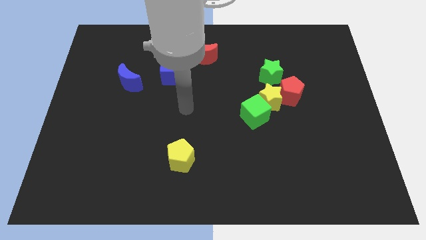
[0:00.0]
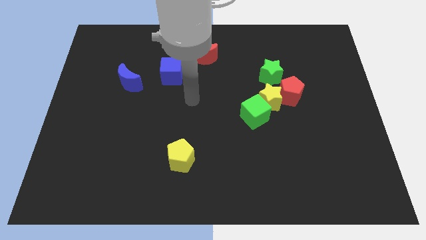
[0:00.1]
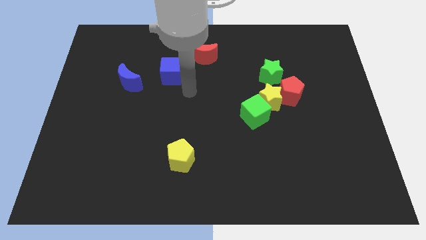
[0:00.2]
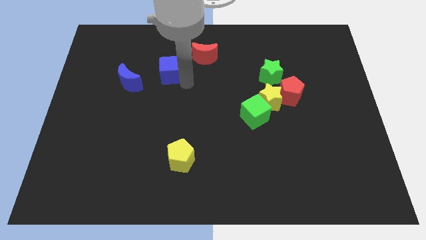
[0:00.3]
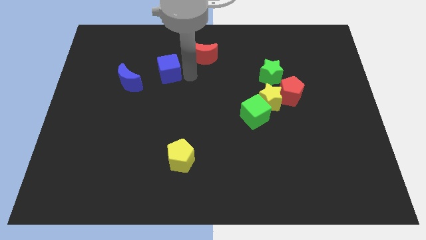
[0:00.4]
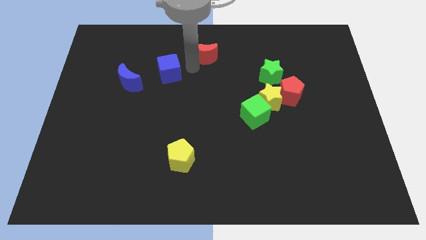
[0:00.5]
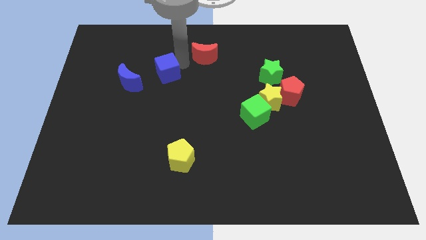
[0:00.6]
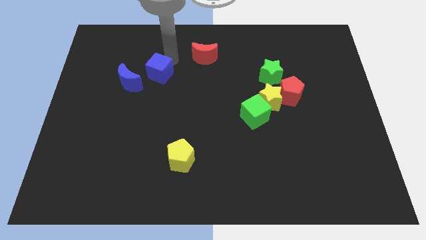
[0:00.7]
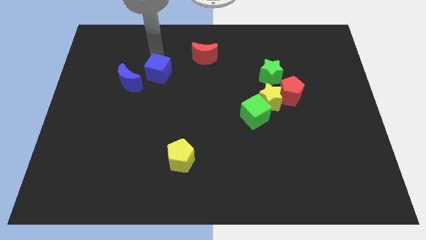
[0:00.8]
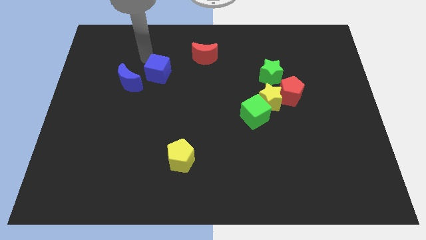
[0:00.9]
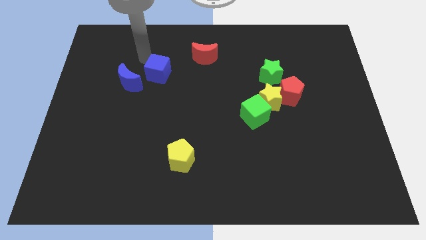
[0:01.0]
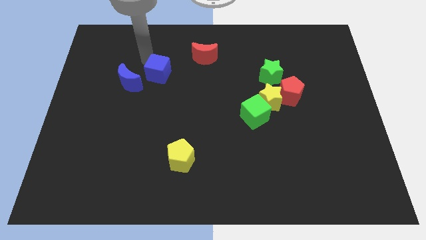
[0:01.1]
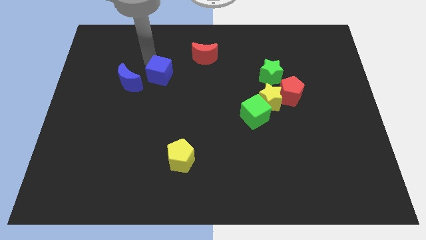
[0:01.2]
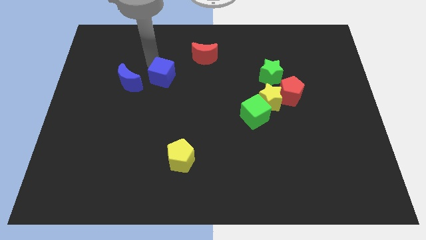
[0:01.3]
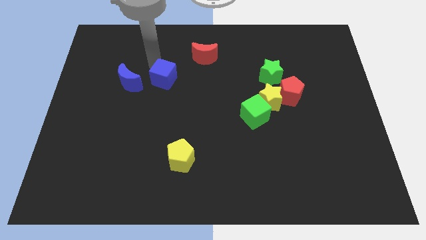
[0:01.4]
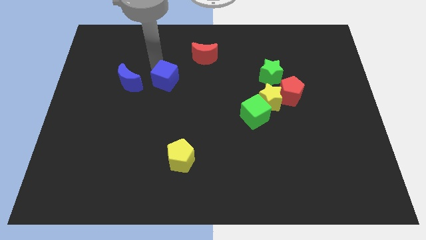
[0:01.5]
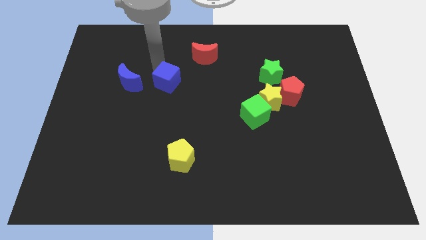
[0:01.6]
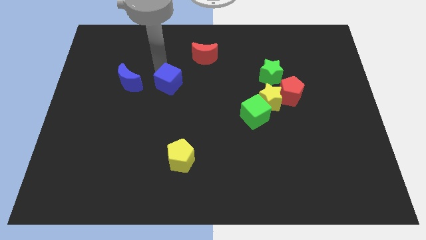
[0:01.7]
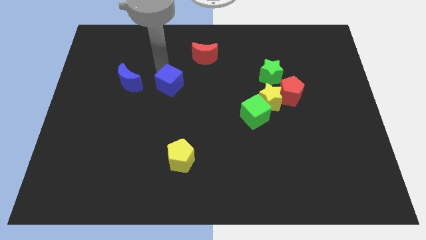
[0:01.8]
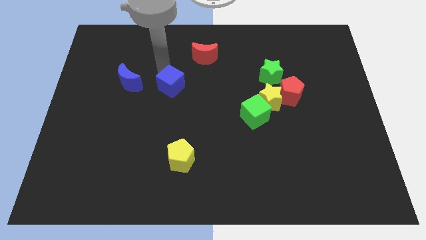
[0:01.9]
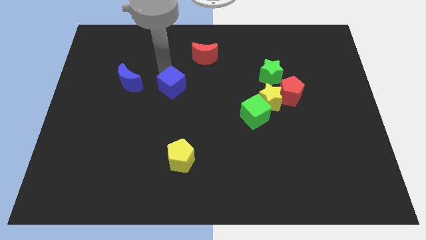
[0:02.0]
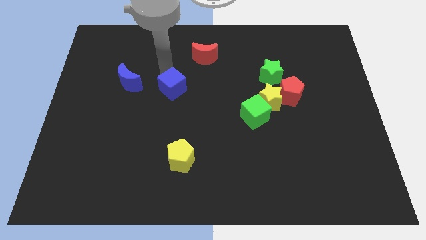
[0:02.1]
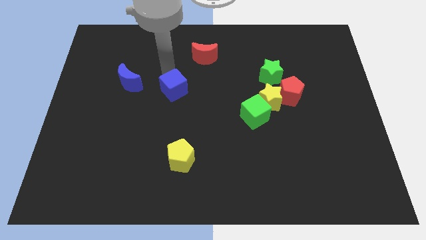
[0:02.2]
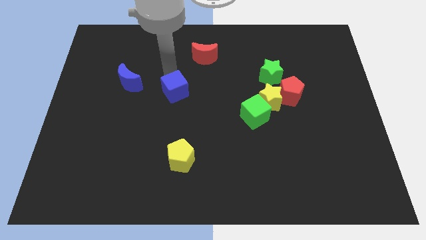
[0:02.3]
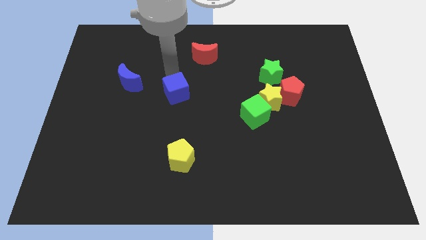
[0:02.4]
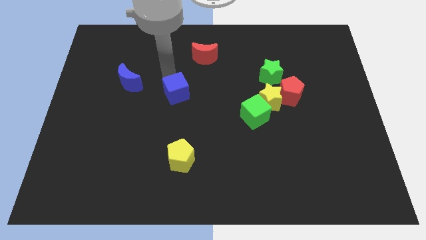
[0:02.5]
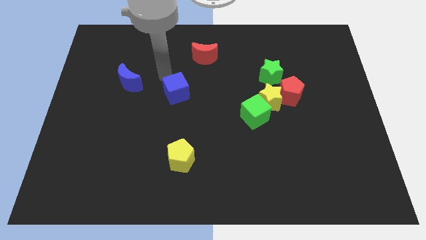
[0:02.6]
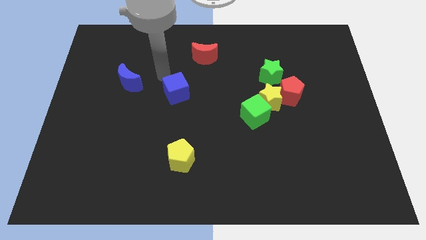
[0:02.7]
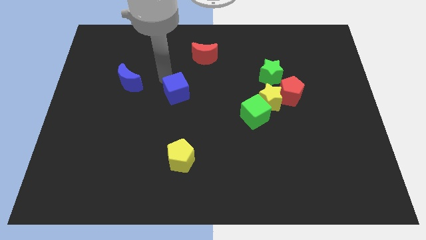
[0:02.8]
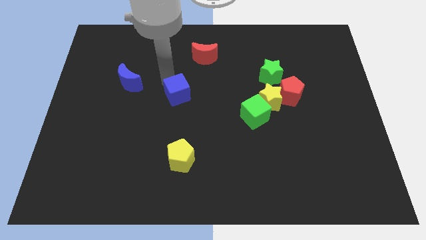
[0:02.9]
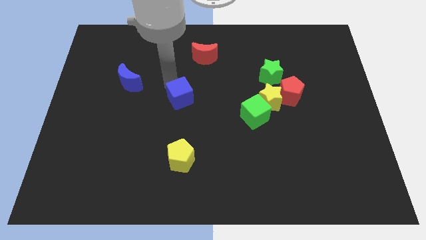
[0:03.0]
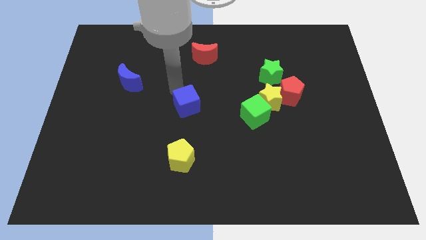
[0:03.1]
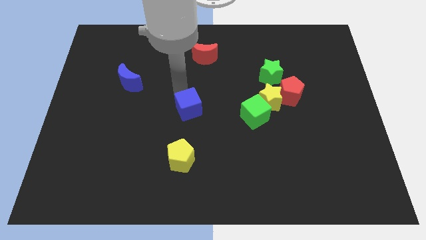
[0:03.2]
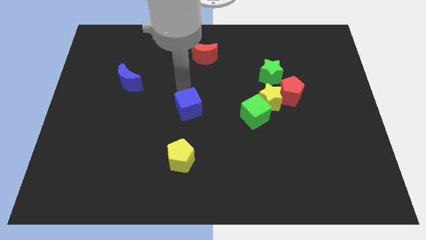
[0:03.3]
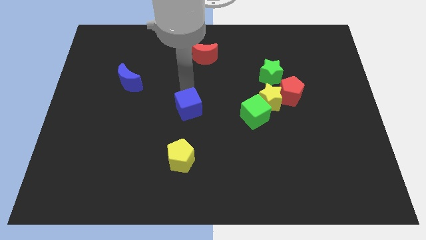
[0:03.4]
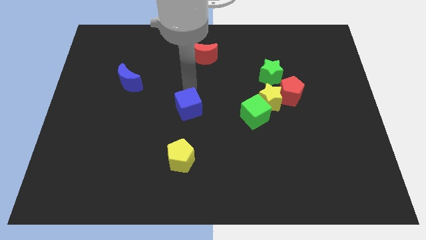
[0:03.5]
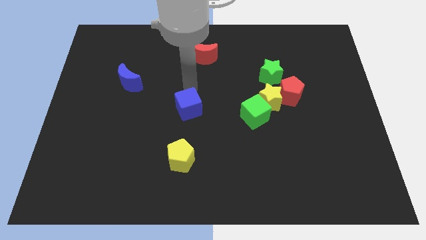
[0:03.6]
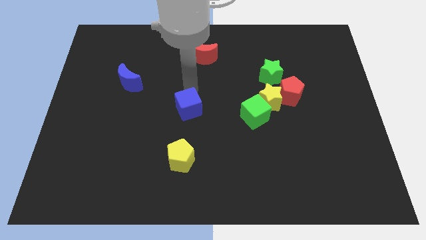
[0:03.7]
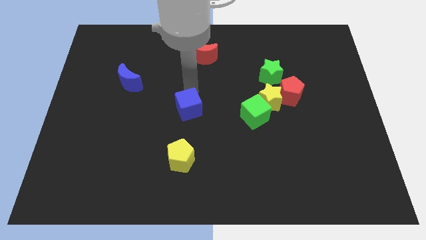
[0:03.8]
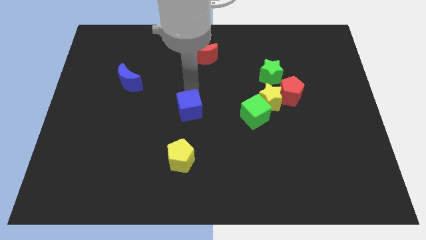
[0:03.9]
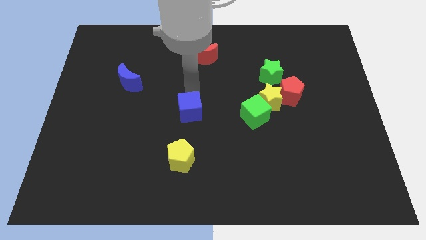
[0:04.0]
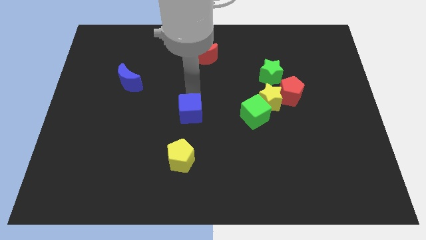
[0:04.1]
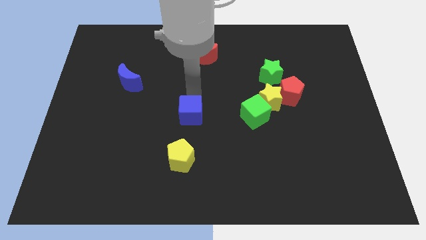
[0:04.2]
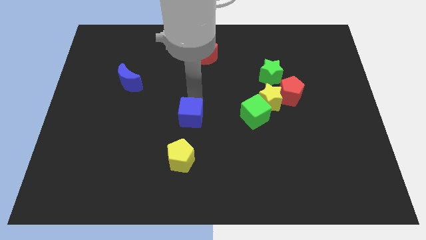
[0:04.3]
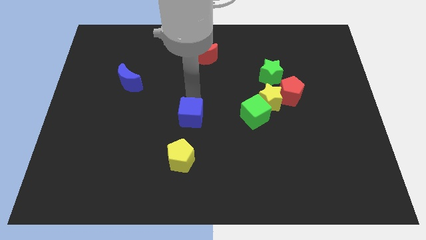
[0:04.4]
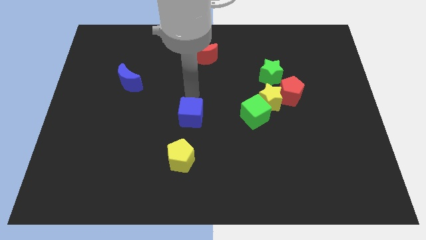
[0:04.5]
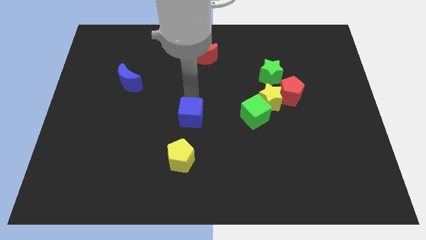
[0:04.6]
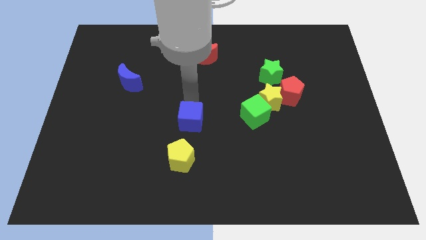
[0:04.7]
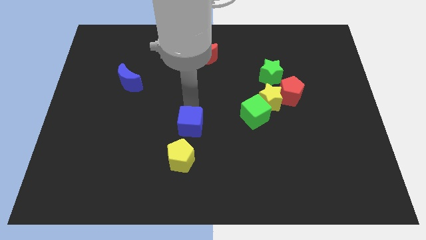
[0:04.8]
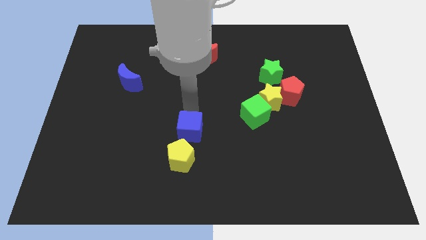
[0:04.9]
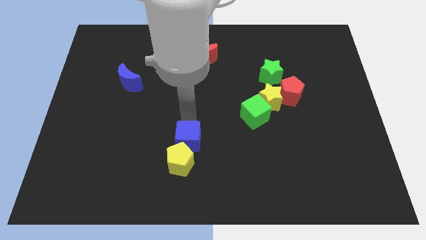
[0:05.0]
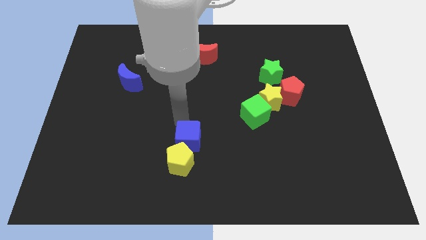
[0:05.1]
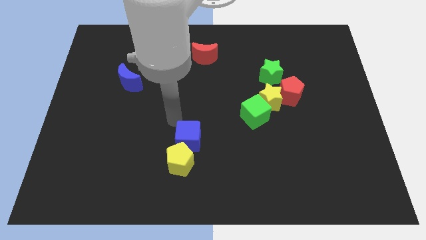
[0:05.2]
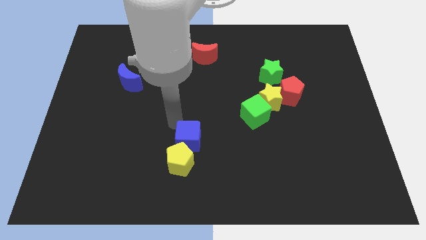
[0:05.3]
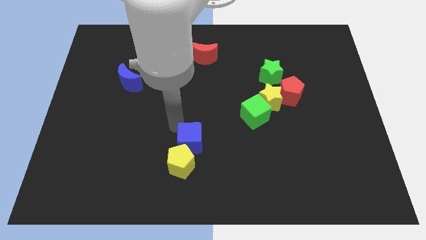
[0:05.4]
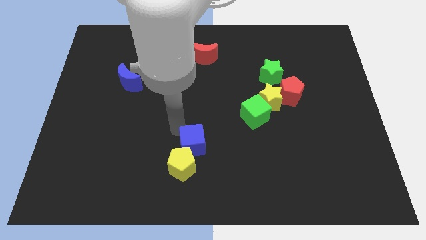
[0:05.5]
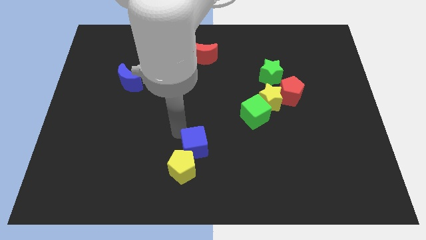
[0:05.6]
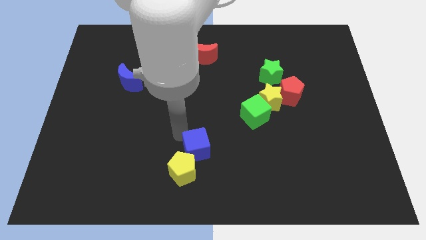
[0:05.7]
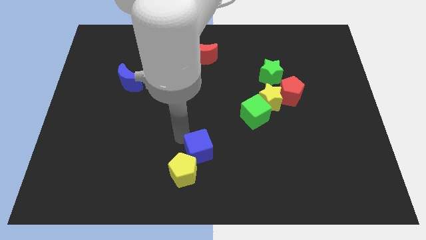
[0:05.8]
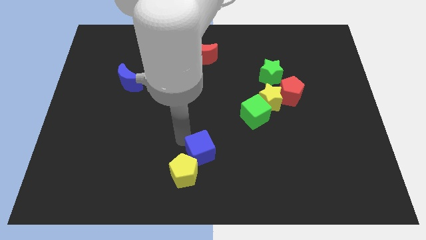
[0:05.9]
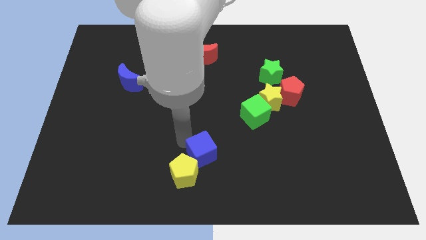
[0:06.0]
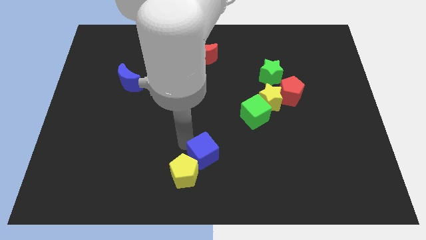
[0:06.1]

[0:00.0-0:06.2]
slide the blue cube to the bottom

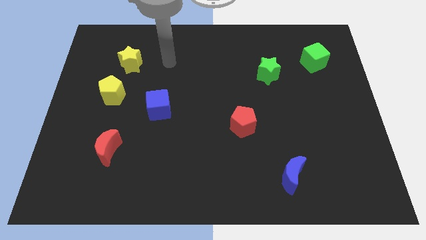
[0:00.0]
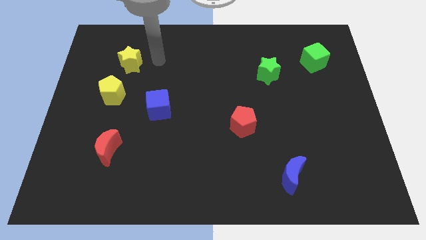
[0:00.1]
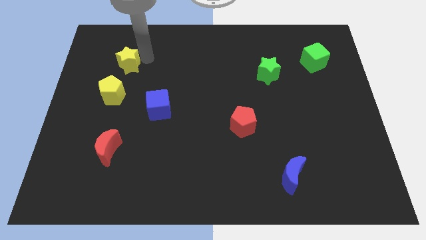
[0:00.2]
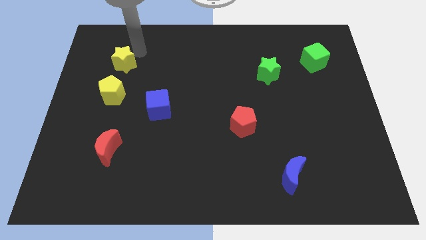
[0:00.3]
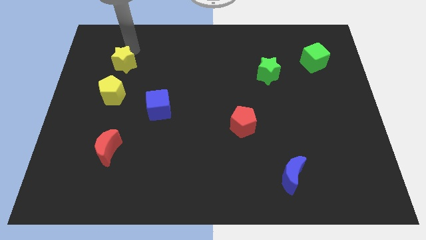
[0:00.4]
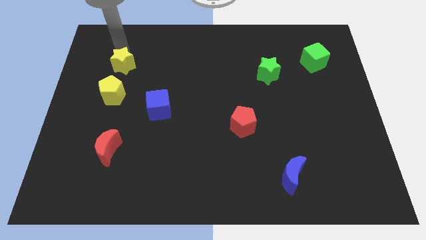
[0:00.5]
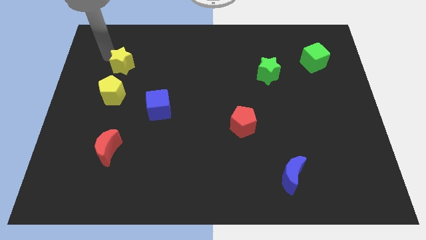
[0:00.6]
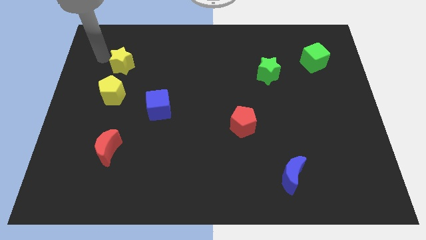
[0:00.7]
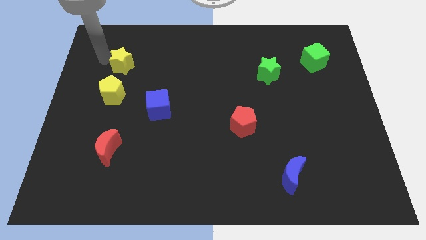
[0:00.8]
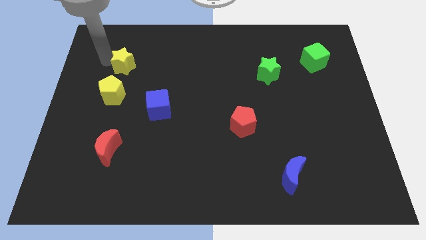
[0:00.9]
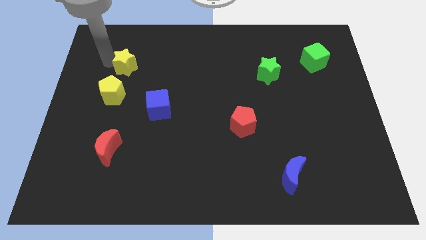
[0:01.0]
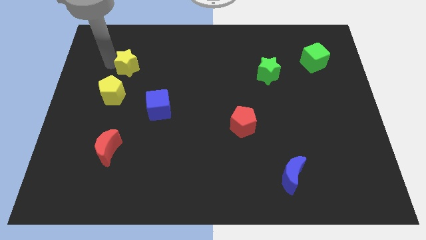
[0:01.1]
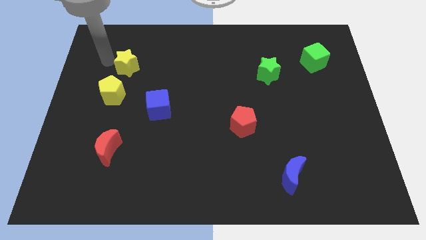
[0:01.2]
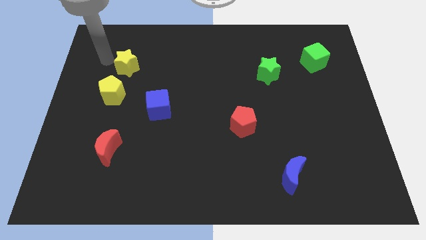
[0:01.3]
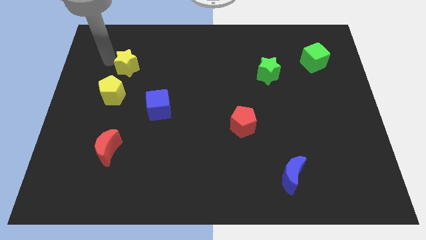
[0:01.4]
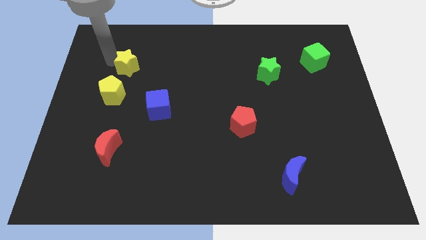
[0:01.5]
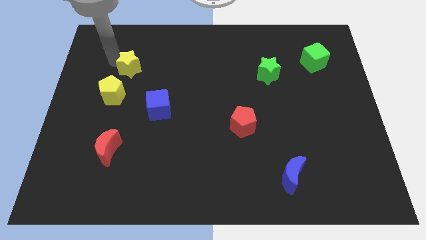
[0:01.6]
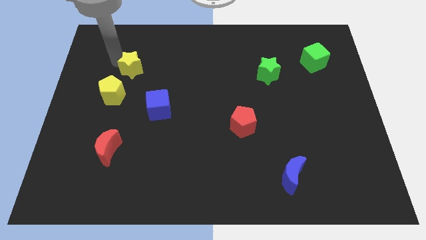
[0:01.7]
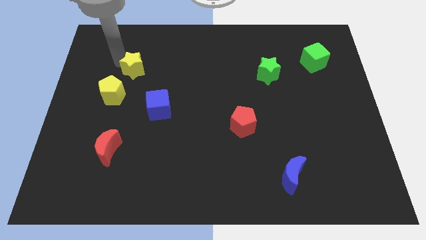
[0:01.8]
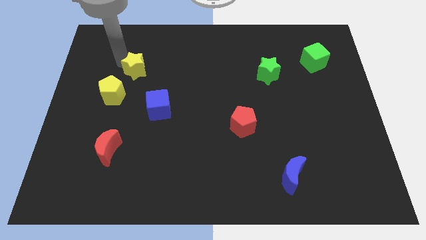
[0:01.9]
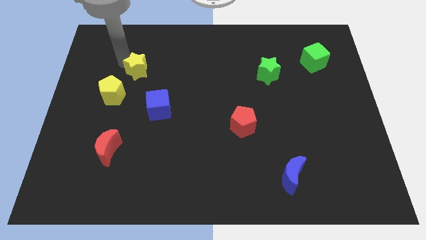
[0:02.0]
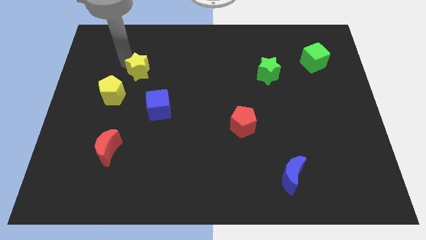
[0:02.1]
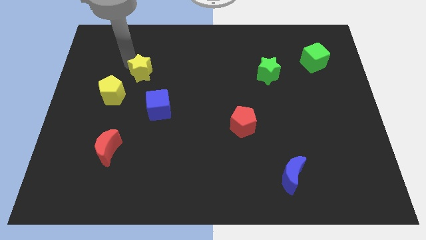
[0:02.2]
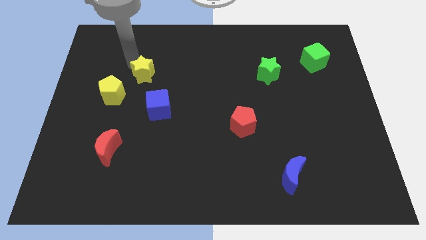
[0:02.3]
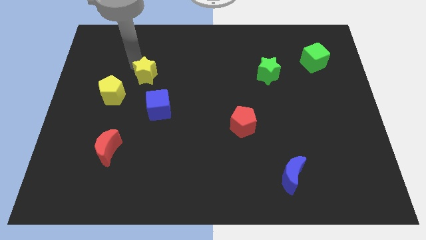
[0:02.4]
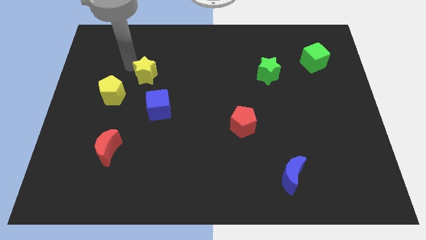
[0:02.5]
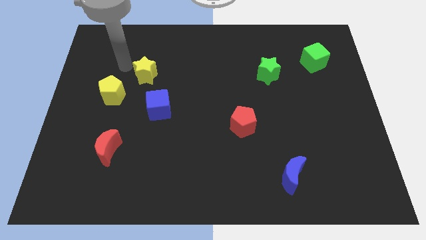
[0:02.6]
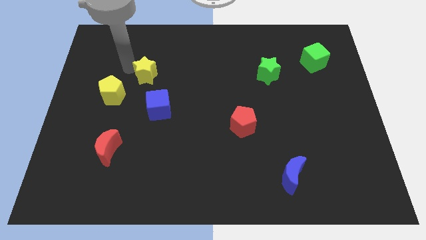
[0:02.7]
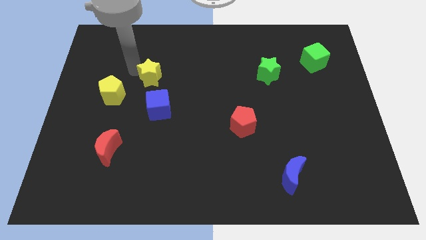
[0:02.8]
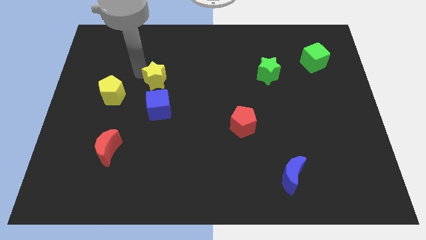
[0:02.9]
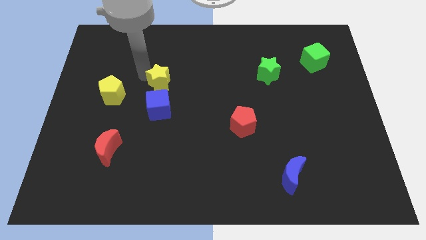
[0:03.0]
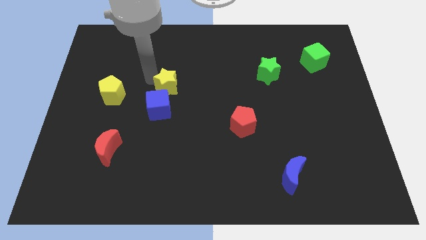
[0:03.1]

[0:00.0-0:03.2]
slide the yellow star to the middle of the board
